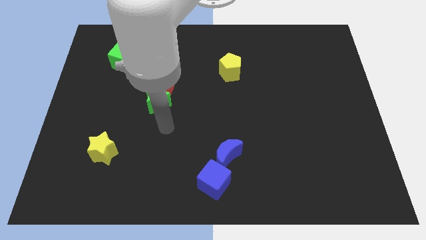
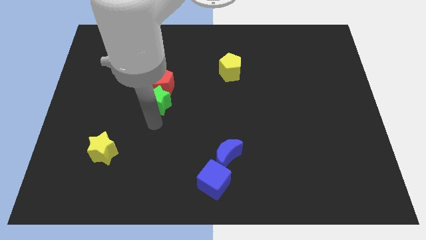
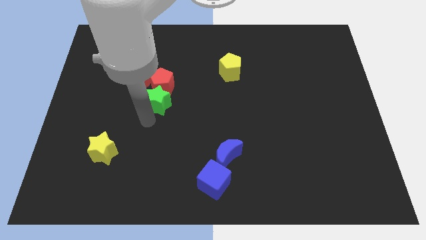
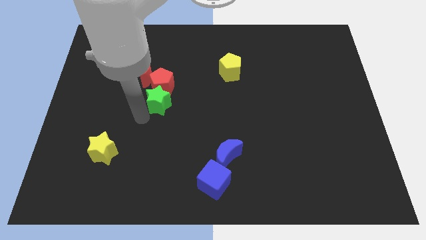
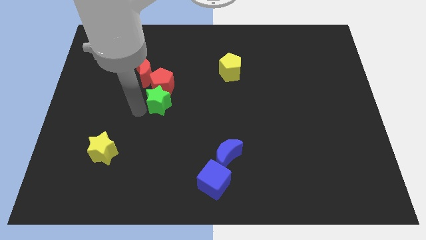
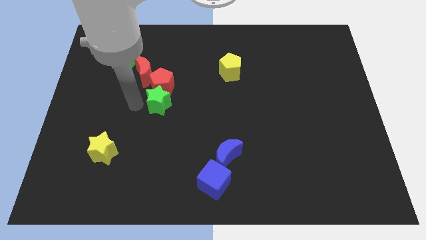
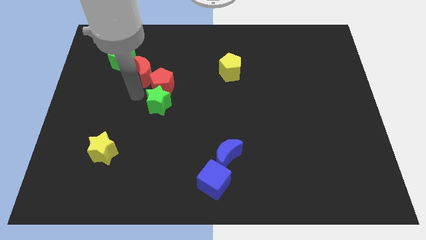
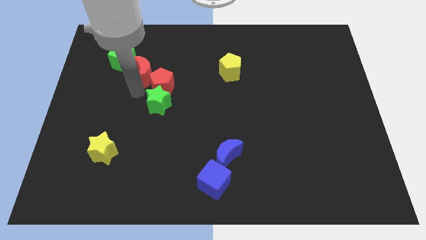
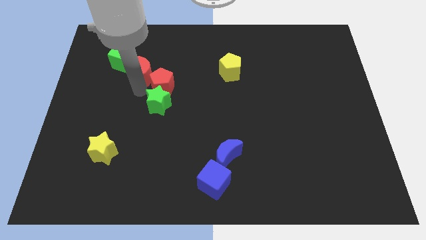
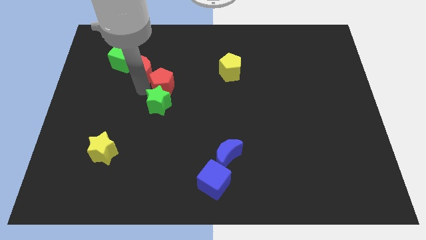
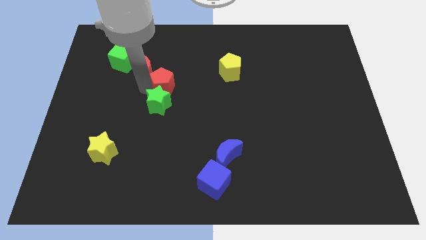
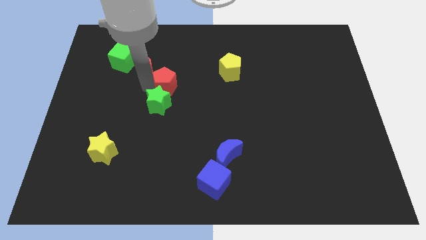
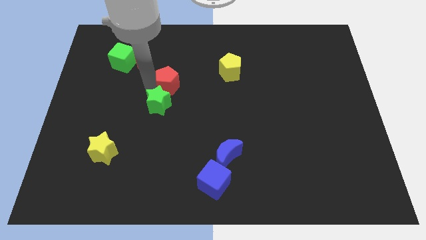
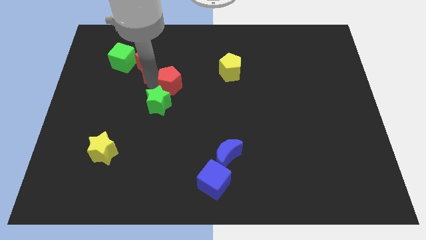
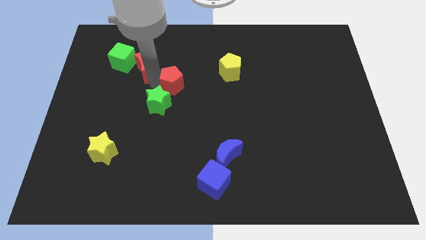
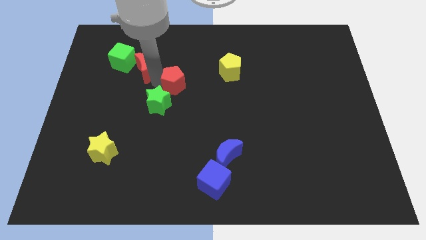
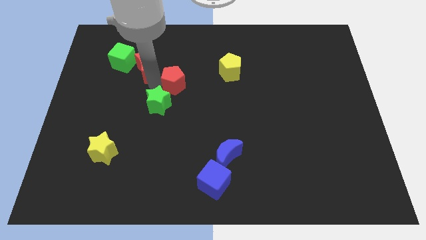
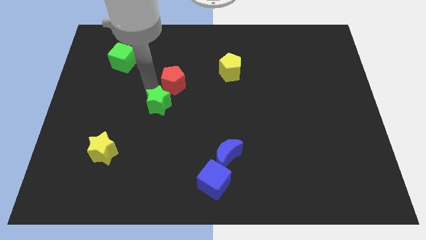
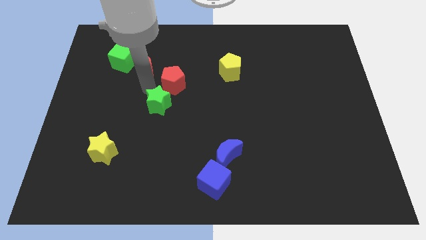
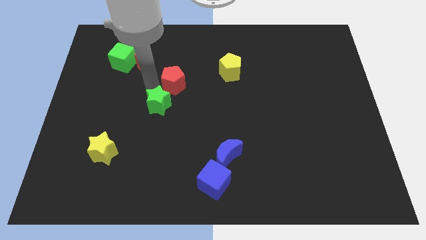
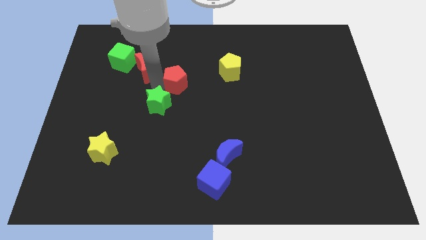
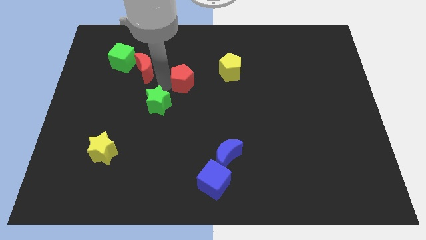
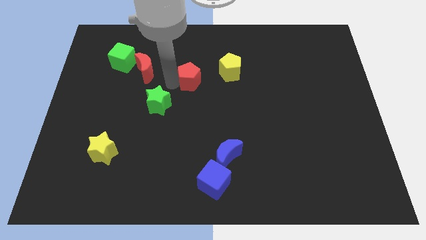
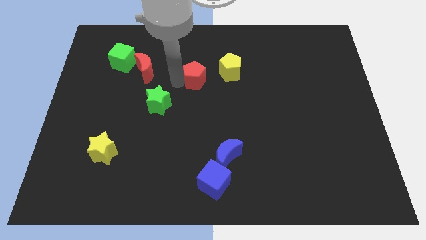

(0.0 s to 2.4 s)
separate the red pentagon from the green star and red moon

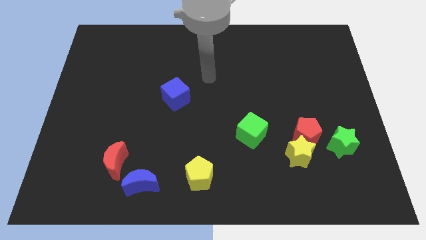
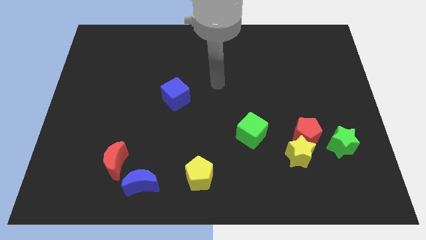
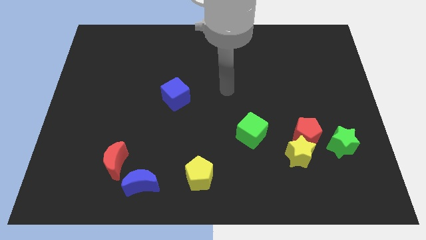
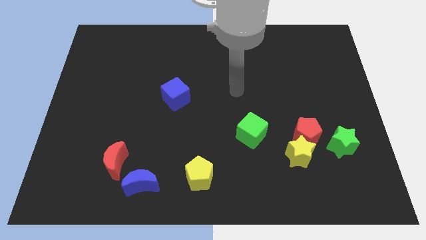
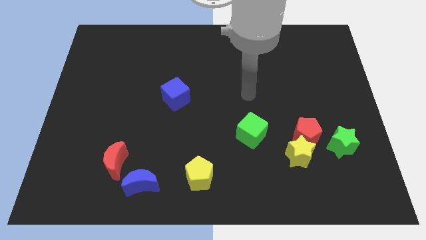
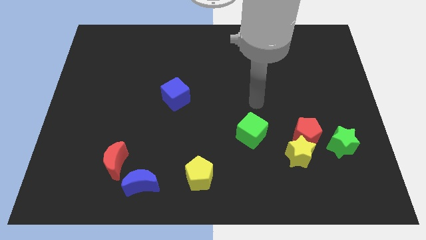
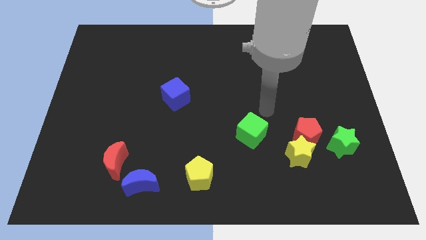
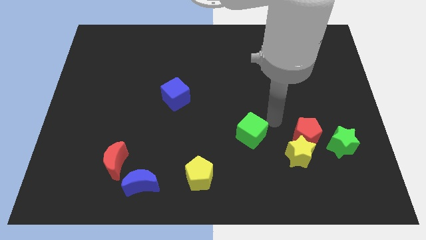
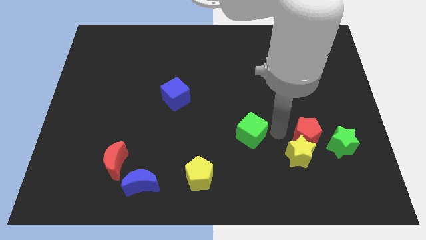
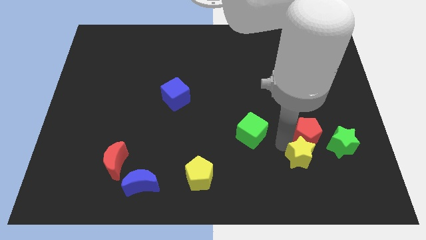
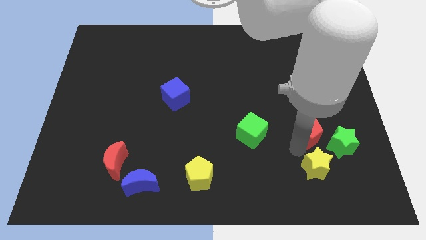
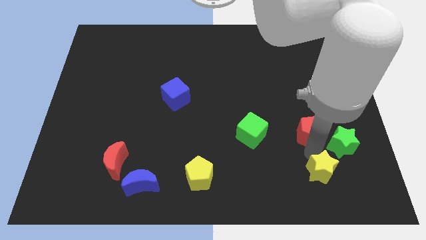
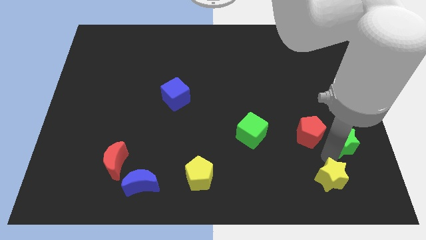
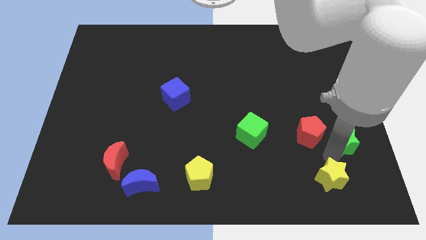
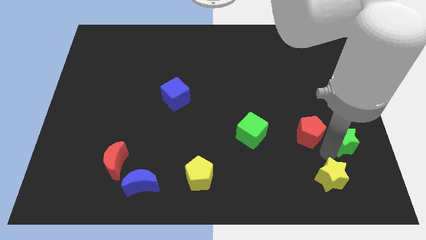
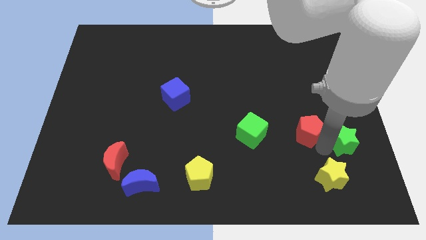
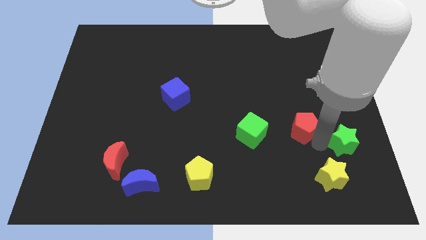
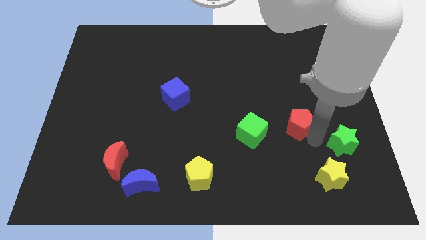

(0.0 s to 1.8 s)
pull the red pentagon apart from the yellow star and green star

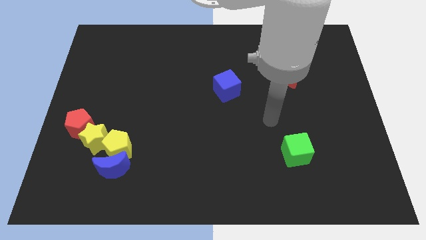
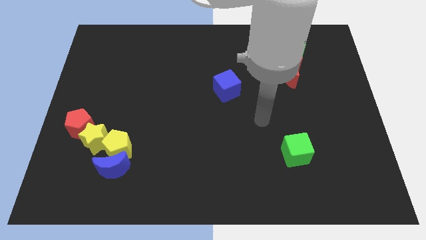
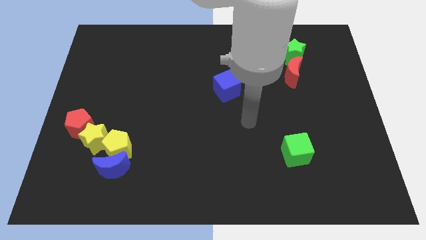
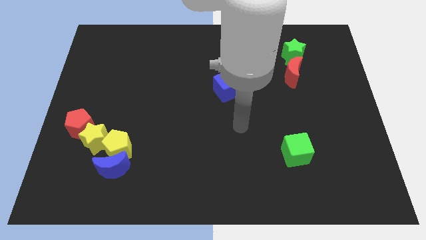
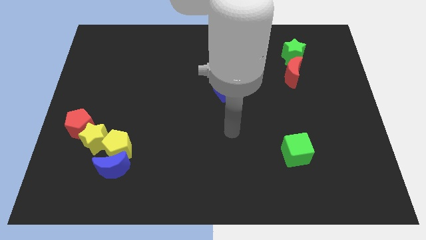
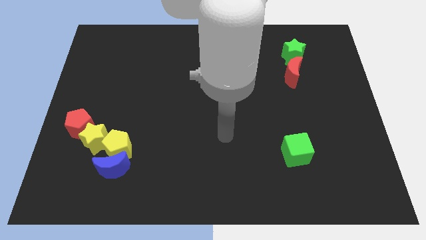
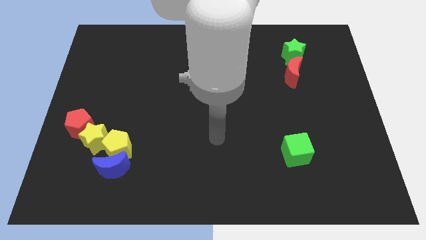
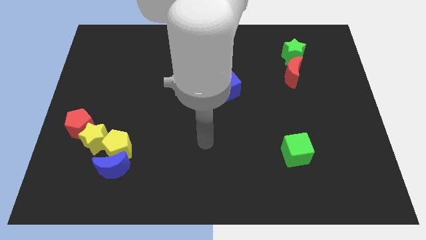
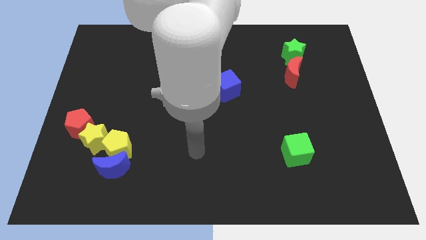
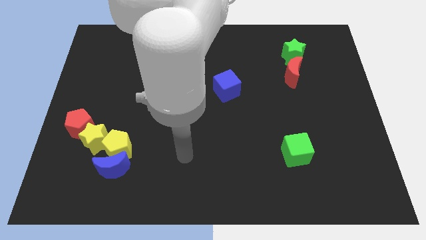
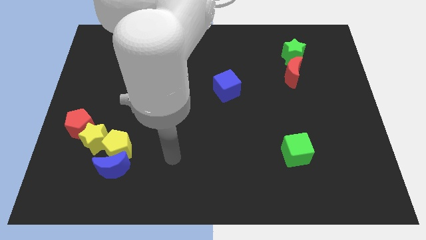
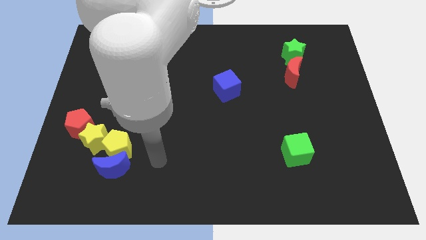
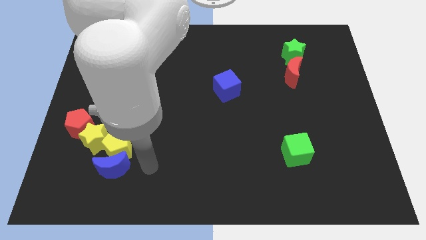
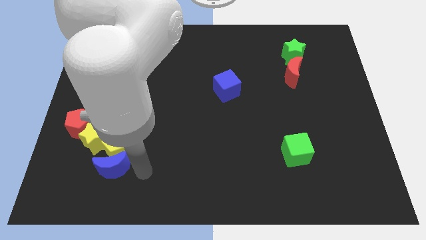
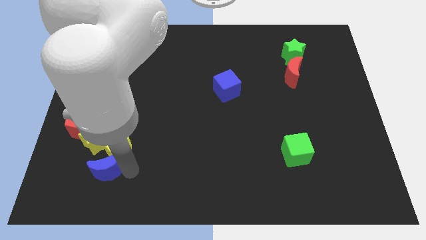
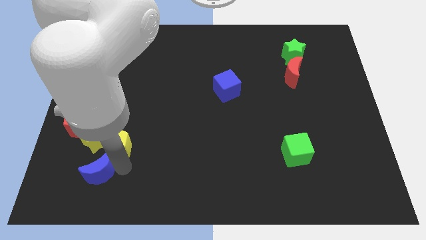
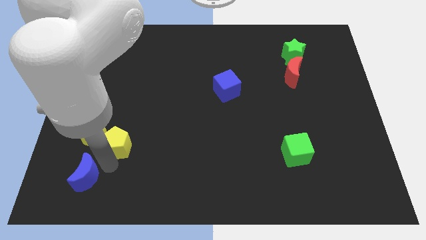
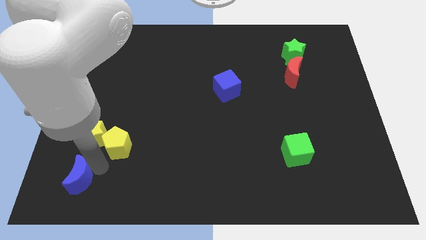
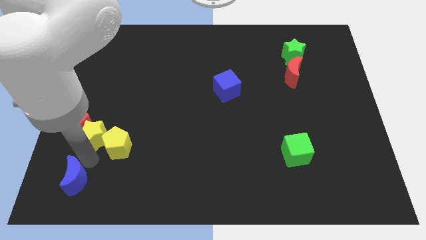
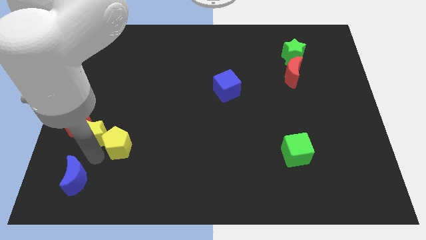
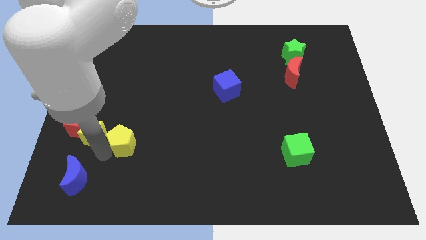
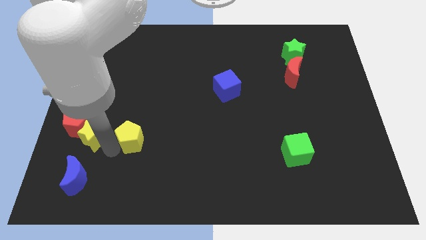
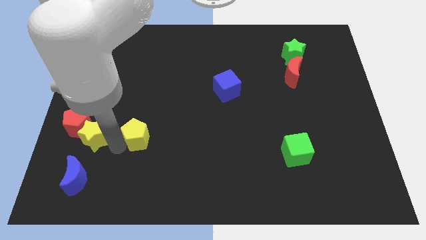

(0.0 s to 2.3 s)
pull the yellow pentagon apart from the blue moon and yellow star

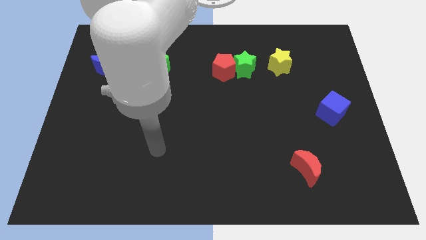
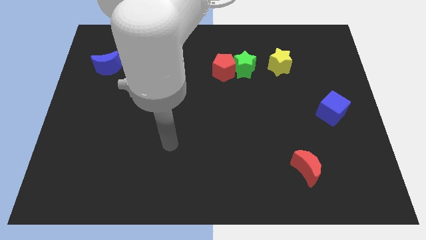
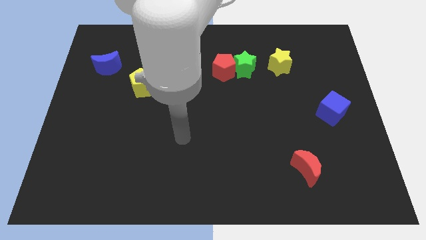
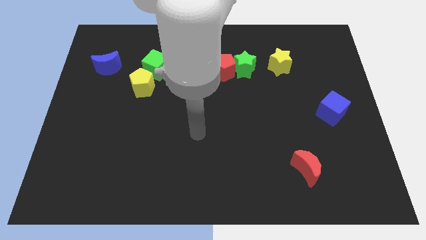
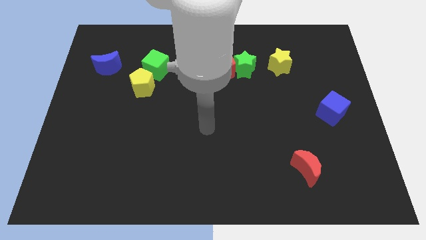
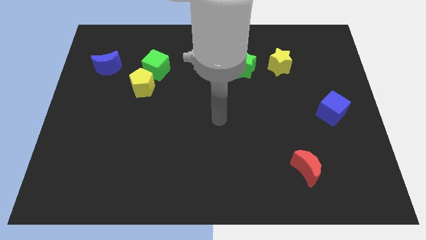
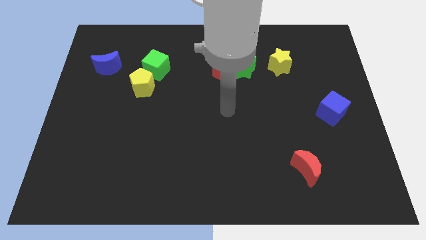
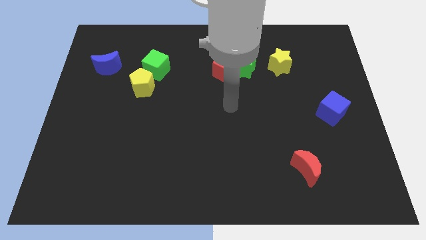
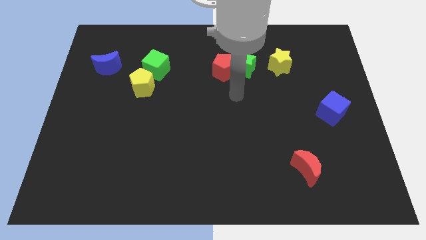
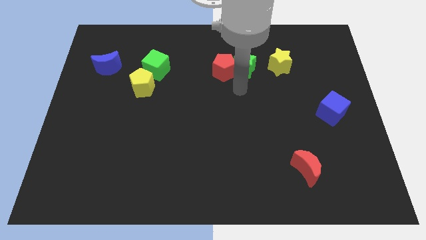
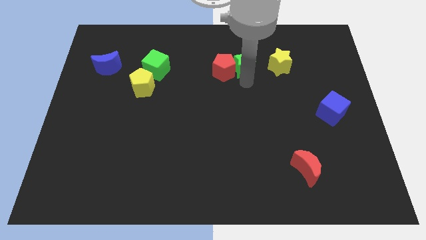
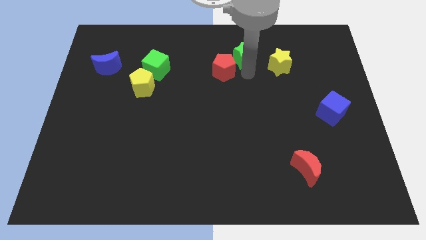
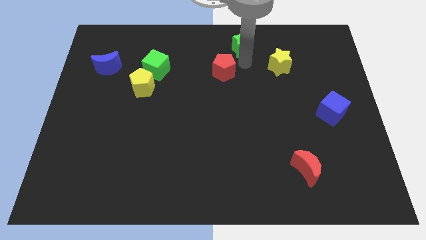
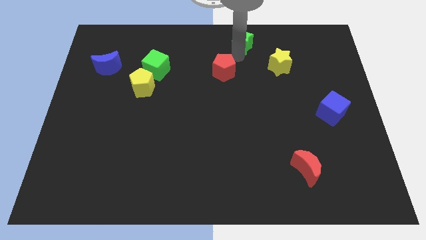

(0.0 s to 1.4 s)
pull the red pentagon apart from the green star

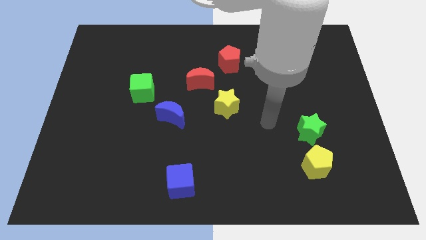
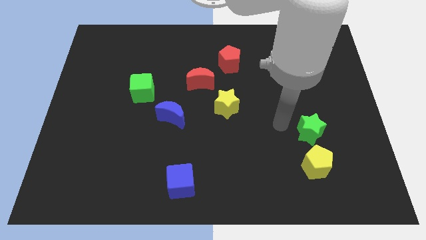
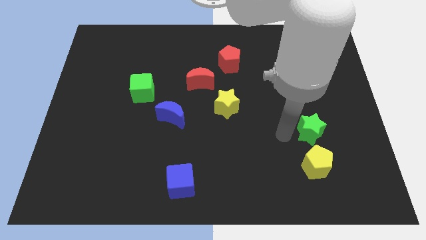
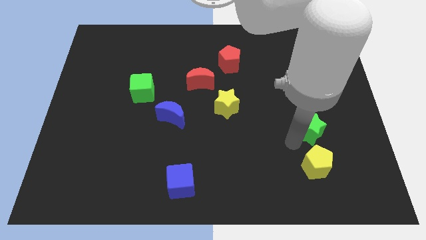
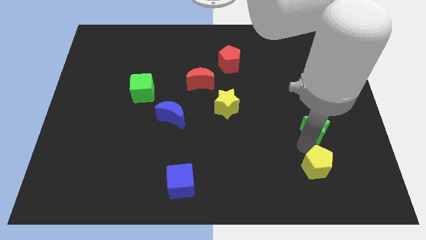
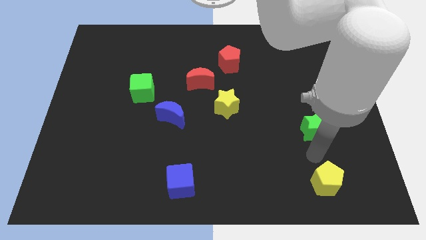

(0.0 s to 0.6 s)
pull the green star apart from the yellow pentagon

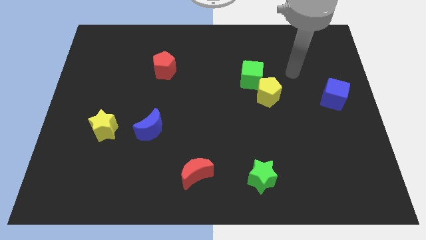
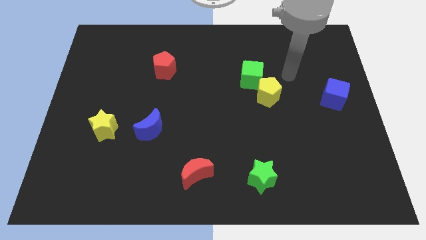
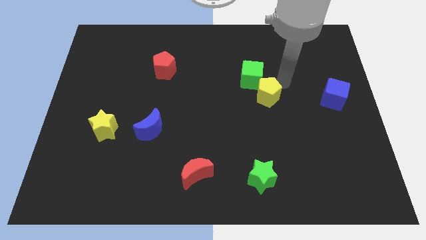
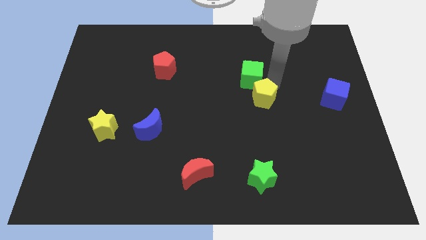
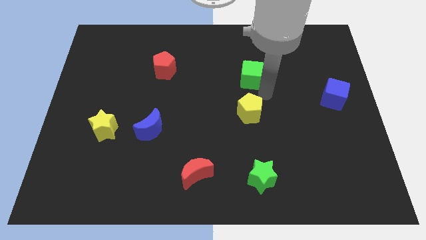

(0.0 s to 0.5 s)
move the green cube away from the yellow pentagon

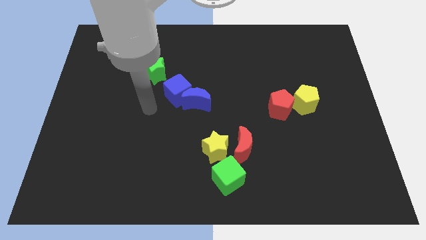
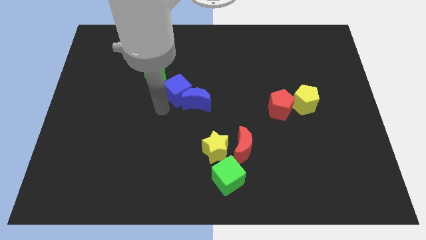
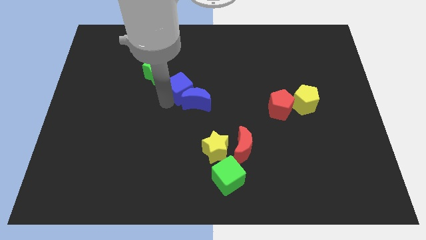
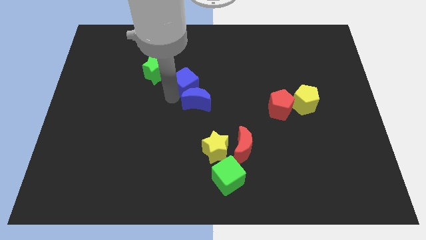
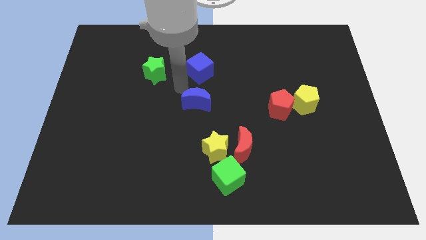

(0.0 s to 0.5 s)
separate the blue moon from the blue cube
